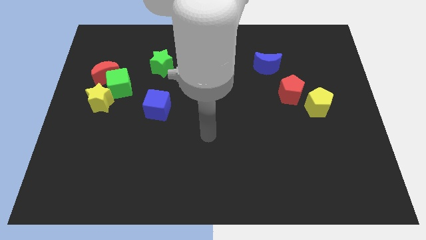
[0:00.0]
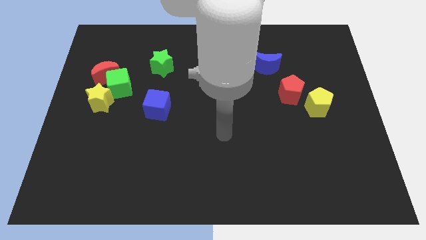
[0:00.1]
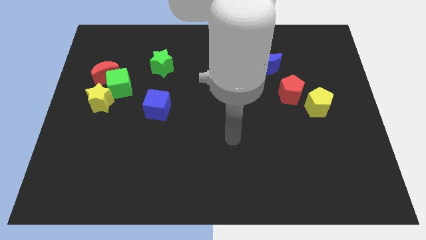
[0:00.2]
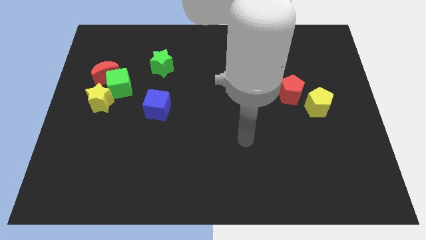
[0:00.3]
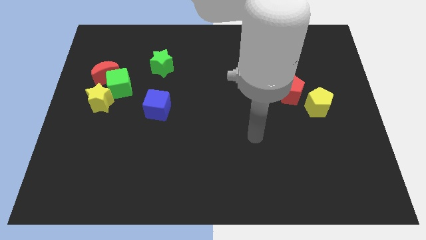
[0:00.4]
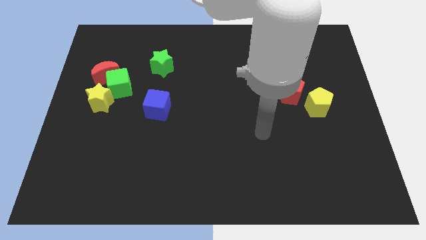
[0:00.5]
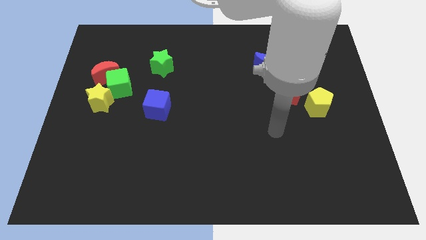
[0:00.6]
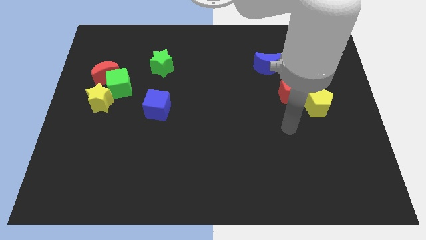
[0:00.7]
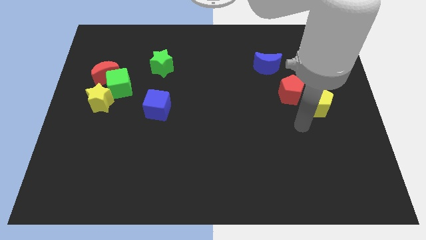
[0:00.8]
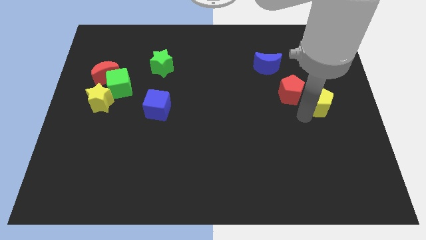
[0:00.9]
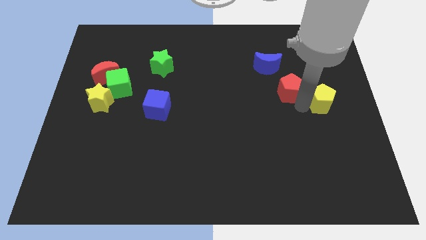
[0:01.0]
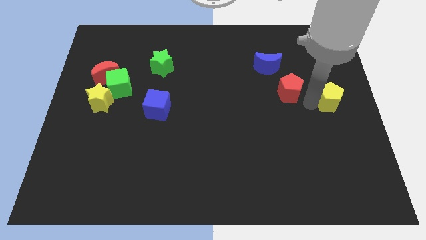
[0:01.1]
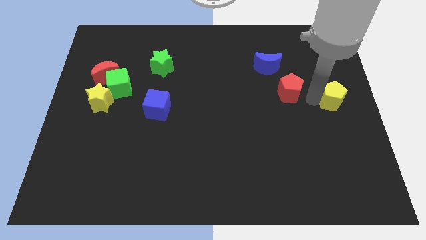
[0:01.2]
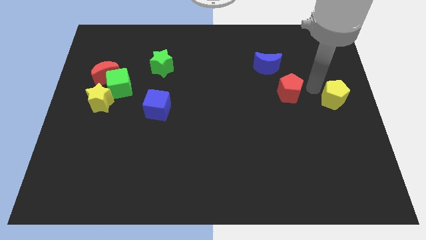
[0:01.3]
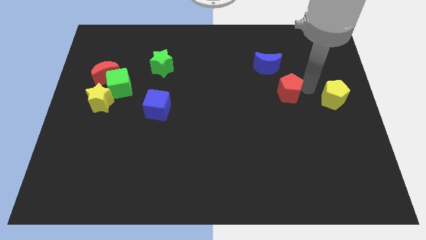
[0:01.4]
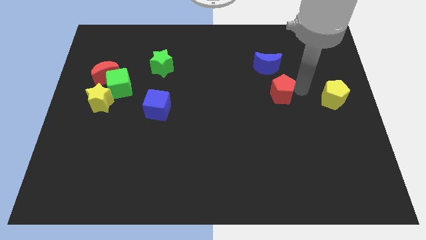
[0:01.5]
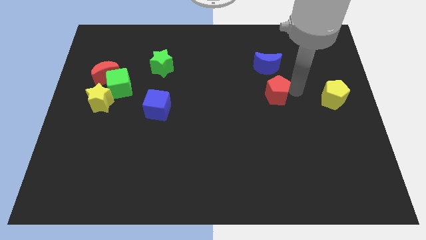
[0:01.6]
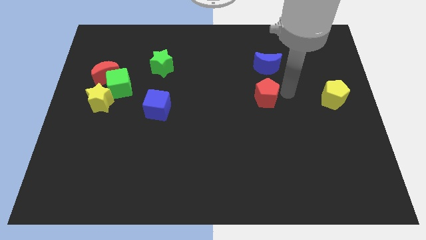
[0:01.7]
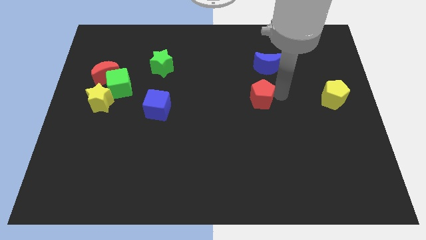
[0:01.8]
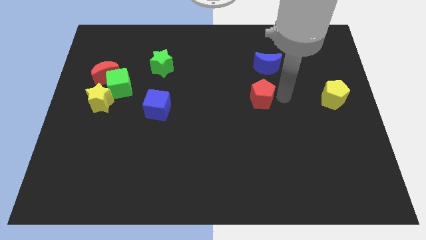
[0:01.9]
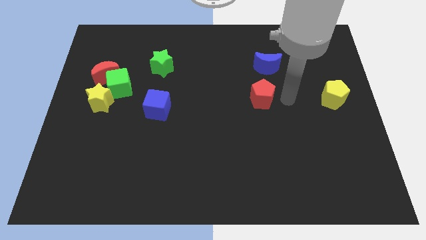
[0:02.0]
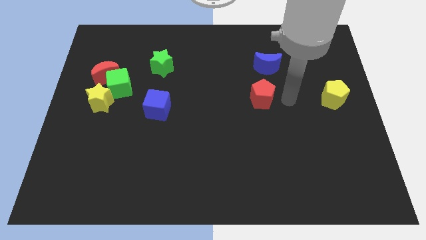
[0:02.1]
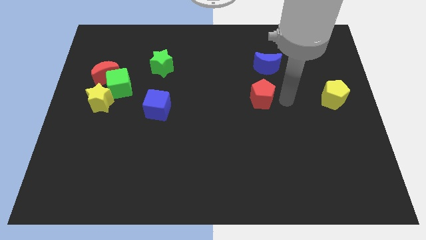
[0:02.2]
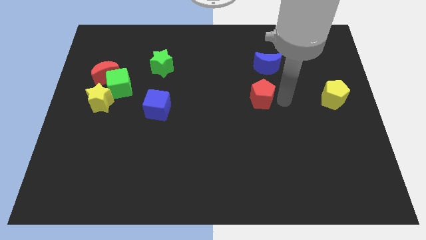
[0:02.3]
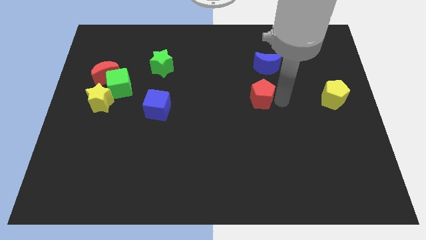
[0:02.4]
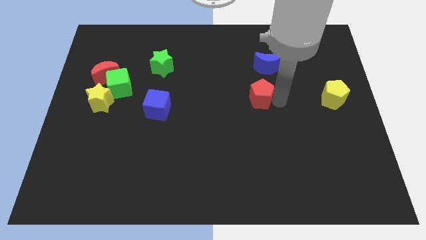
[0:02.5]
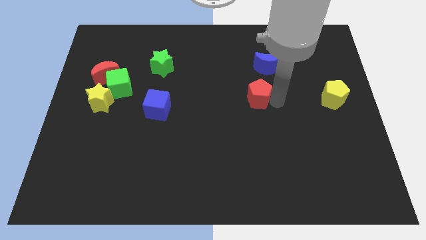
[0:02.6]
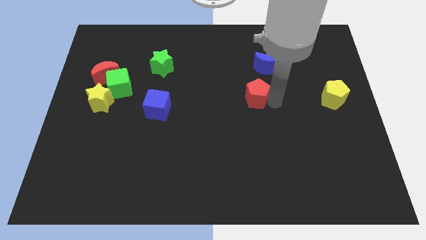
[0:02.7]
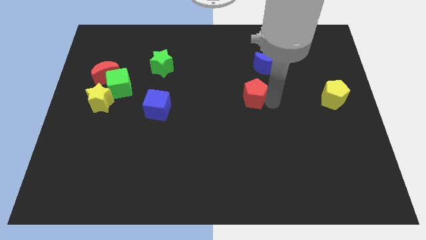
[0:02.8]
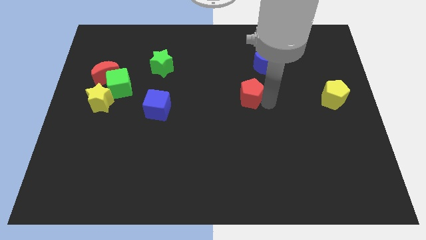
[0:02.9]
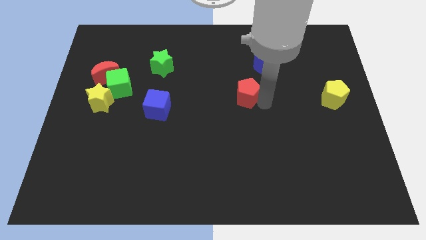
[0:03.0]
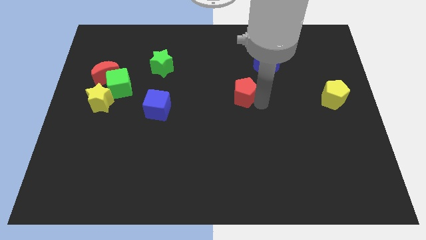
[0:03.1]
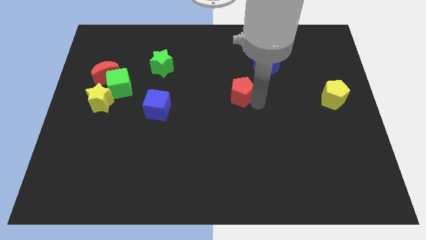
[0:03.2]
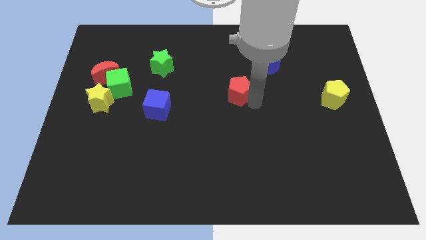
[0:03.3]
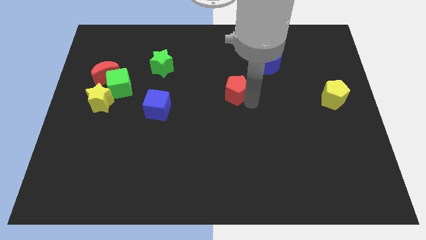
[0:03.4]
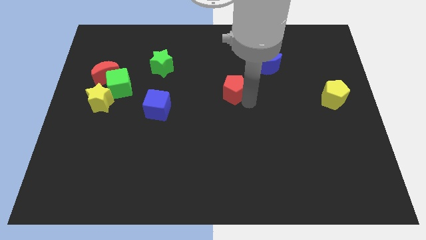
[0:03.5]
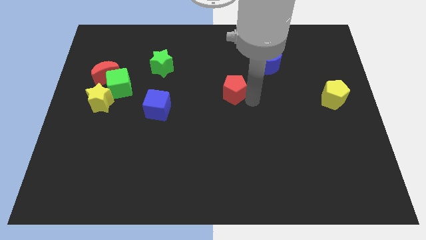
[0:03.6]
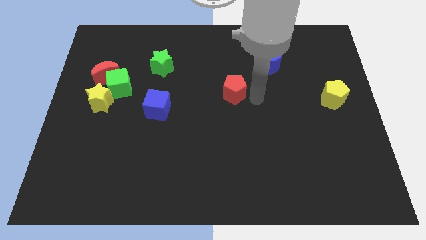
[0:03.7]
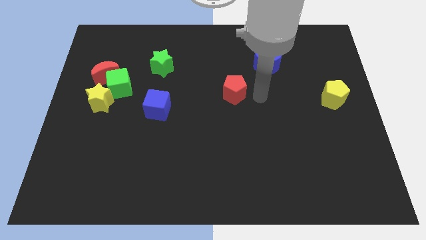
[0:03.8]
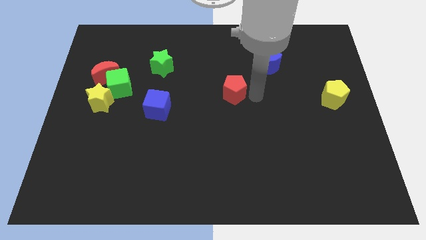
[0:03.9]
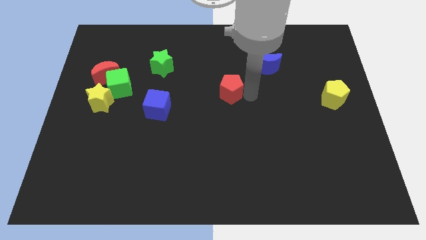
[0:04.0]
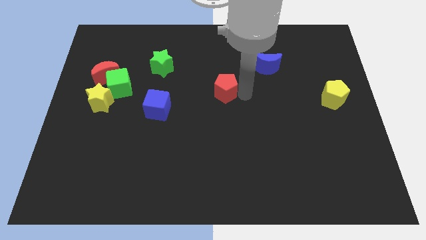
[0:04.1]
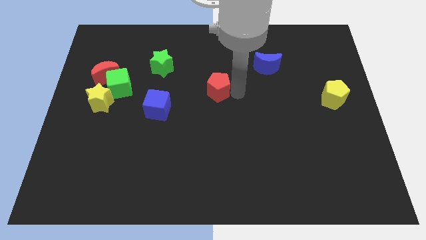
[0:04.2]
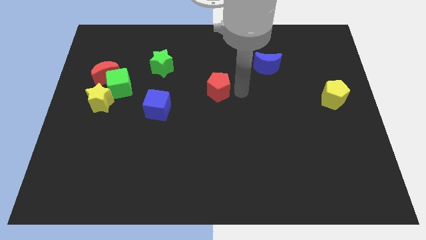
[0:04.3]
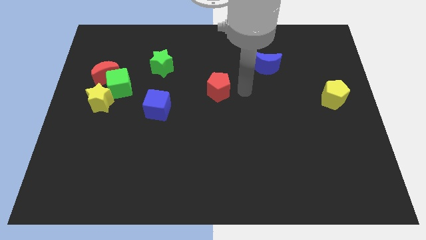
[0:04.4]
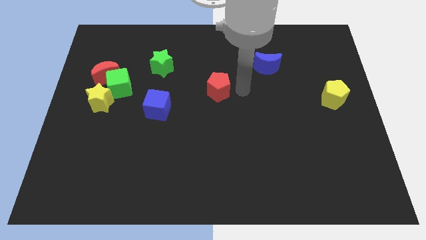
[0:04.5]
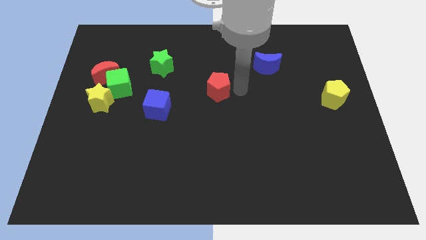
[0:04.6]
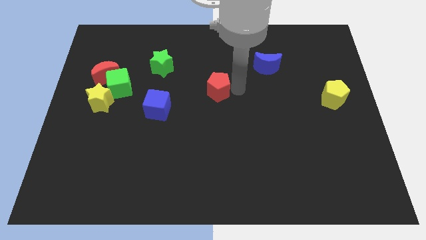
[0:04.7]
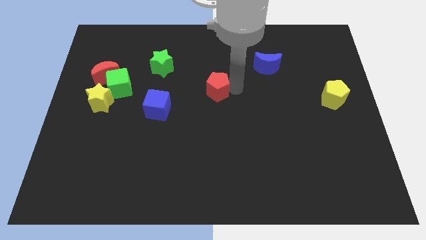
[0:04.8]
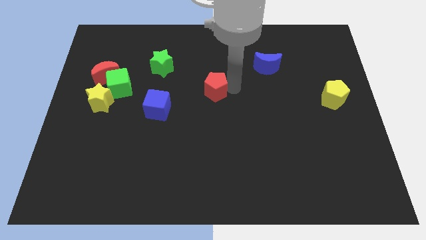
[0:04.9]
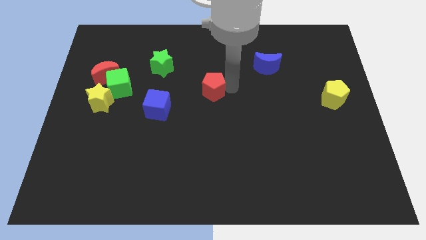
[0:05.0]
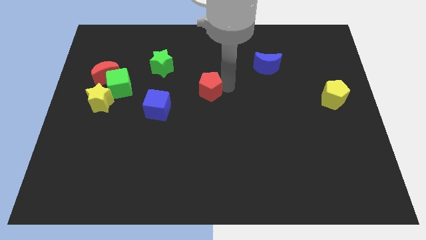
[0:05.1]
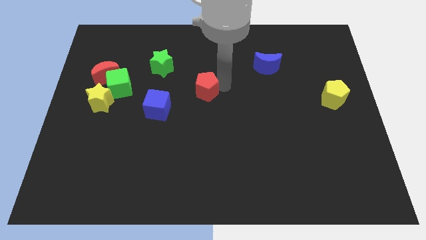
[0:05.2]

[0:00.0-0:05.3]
move the red pentagon left

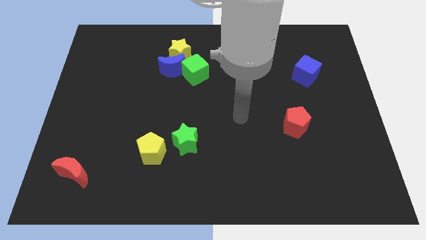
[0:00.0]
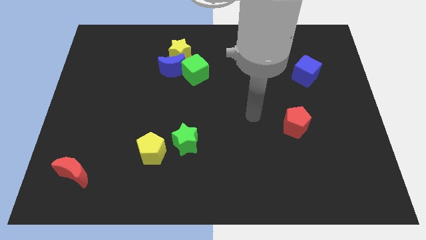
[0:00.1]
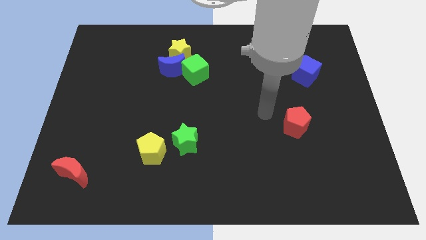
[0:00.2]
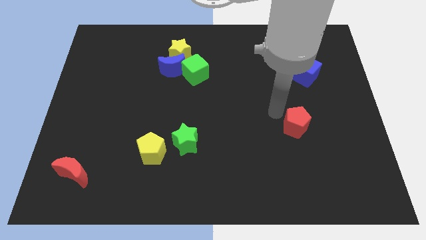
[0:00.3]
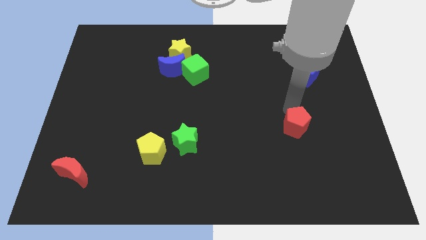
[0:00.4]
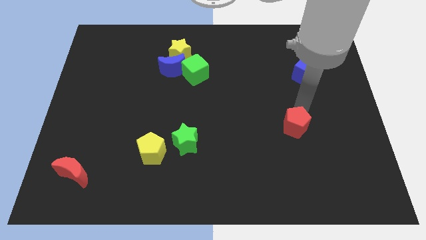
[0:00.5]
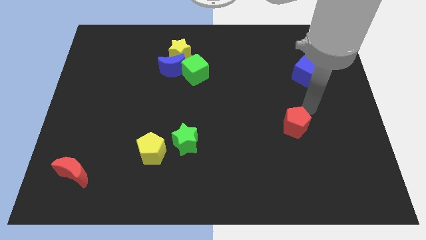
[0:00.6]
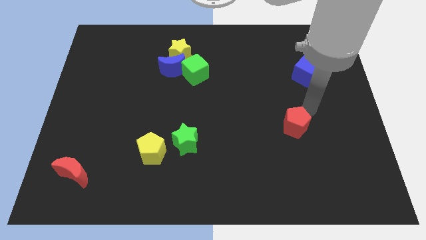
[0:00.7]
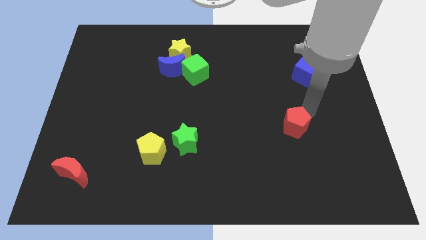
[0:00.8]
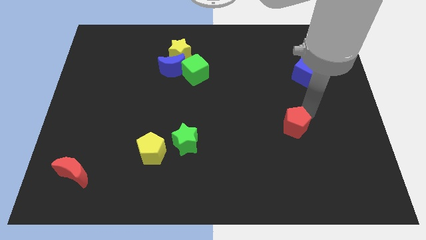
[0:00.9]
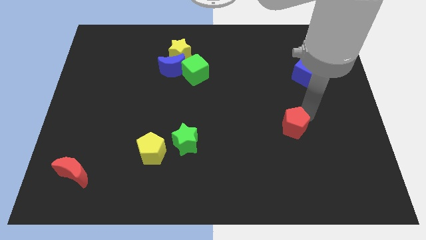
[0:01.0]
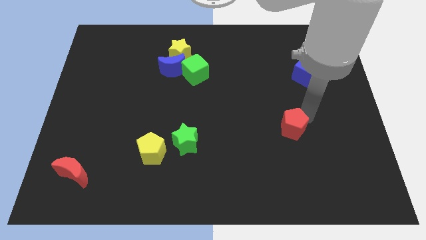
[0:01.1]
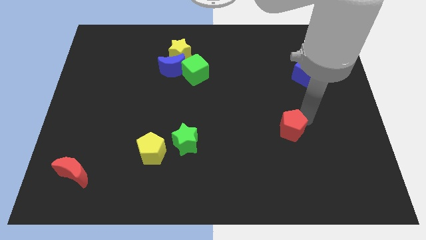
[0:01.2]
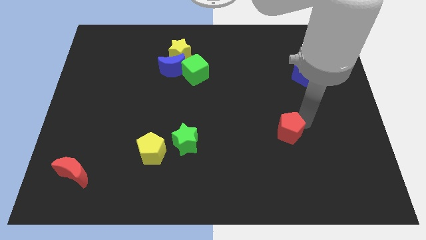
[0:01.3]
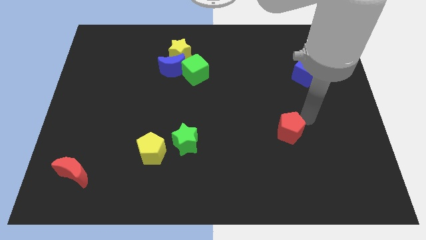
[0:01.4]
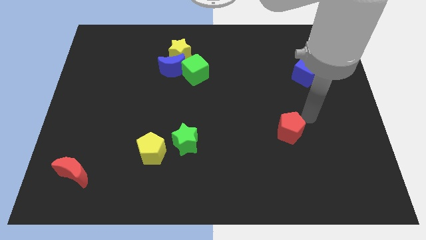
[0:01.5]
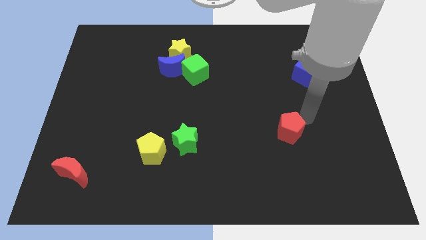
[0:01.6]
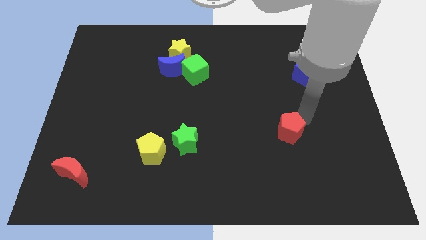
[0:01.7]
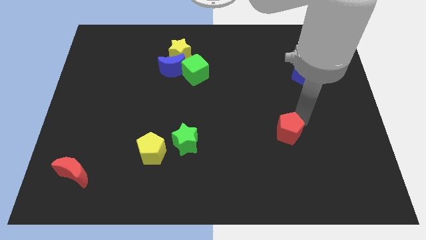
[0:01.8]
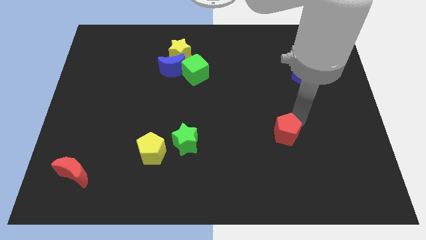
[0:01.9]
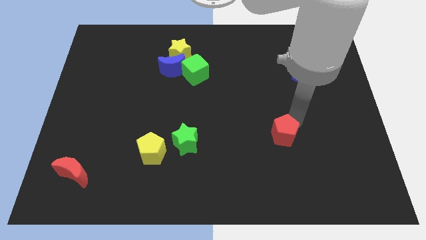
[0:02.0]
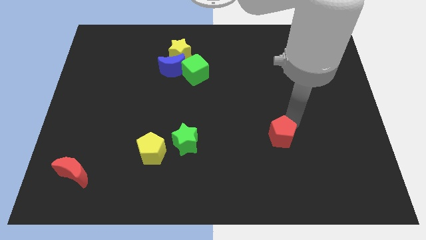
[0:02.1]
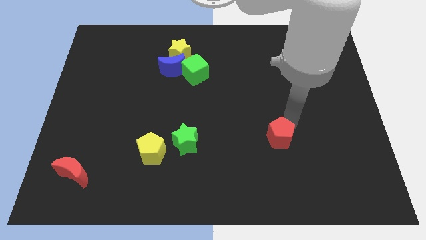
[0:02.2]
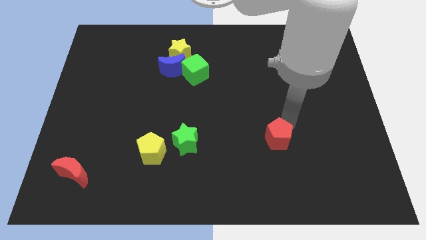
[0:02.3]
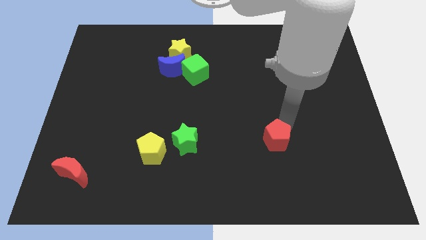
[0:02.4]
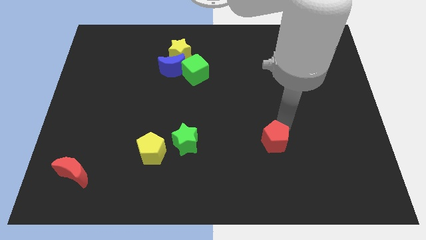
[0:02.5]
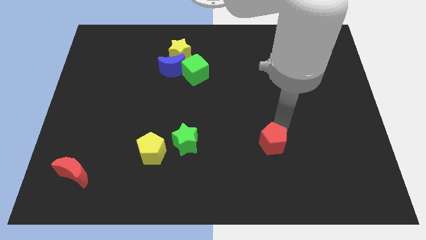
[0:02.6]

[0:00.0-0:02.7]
slide the red pentagon a bit downwards and left
